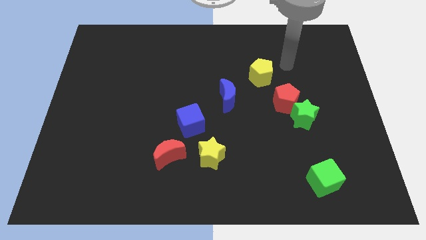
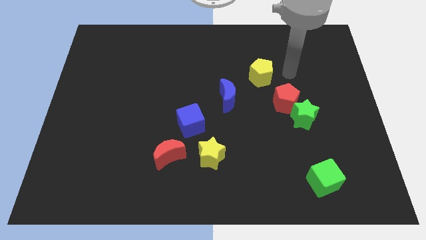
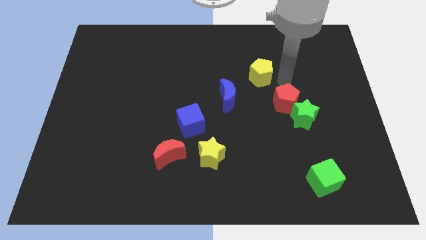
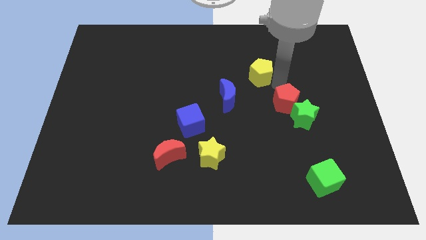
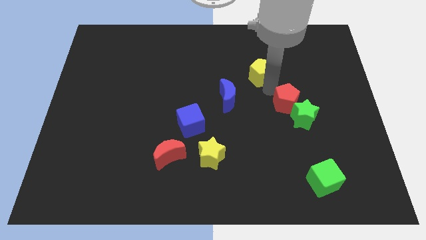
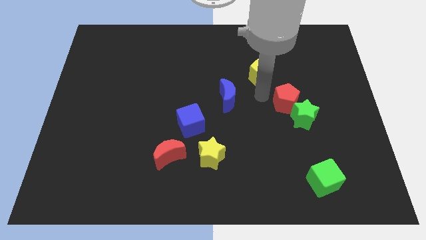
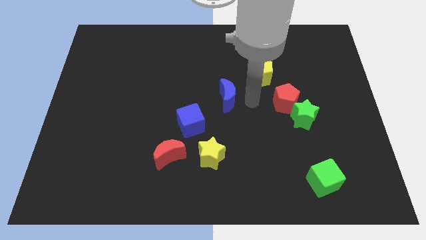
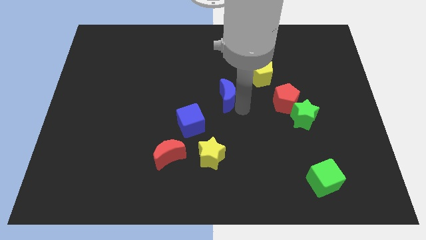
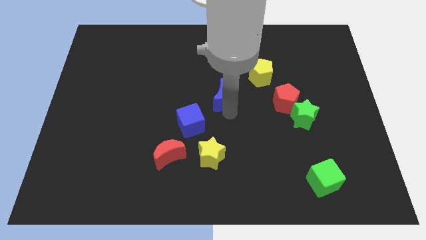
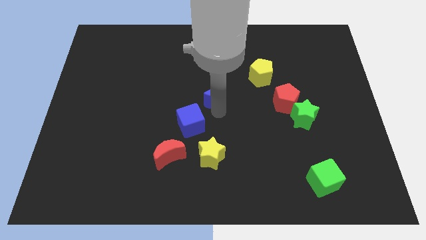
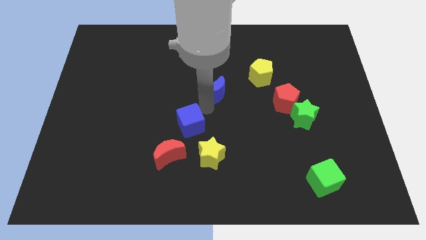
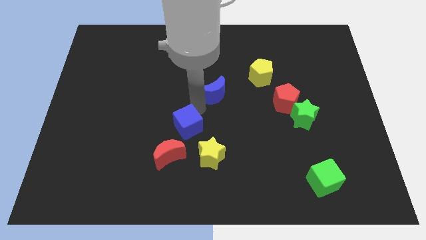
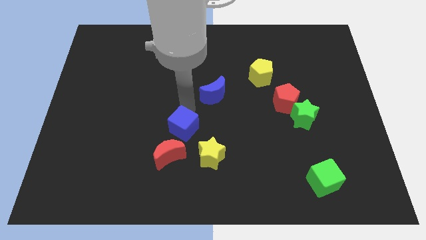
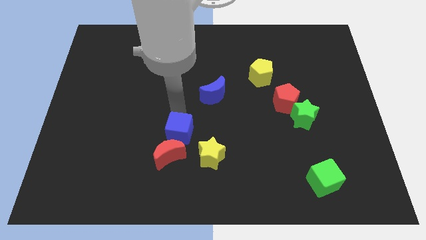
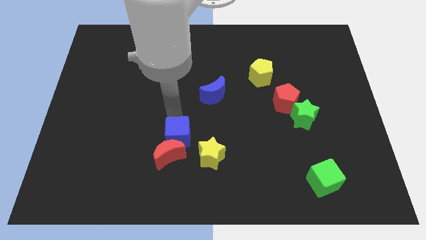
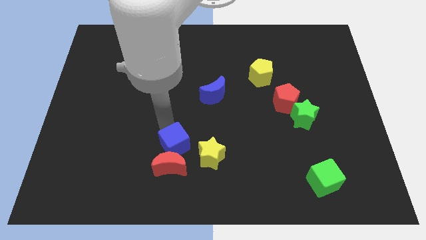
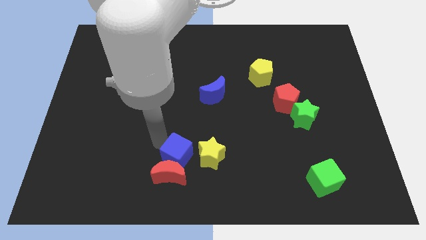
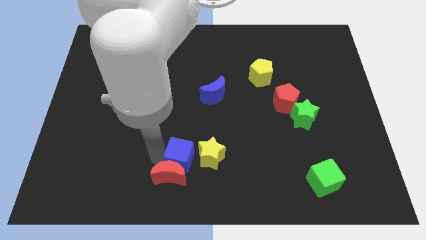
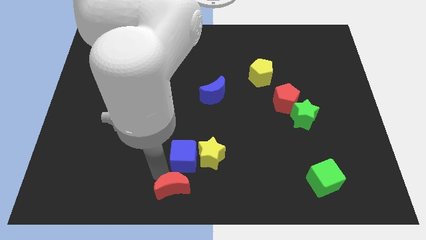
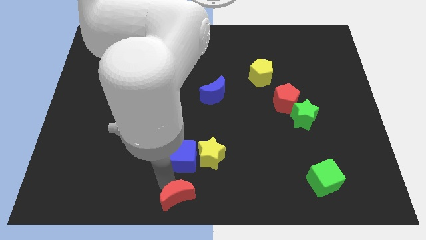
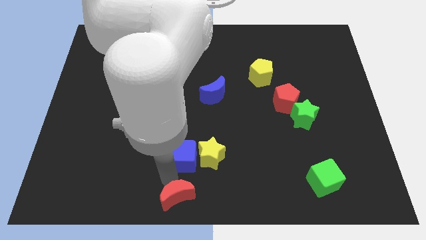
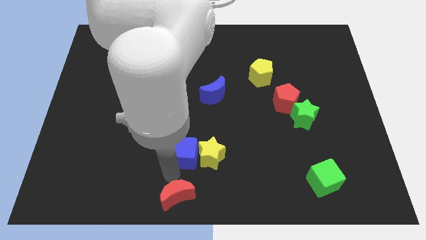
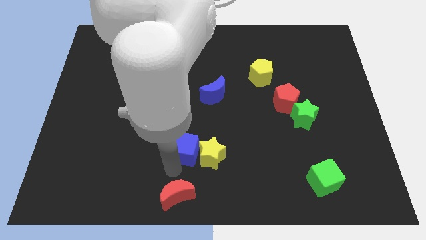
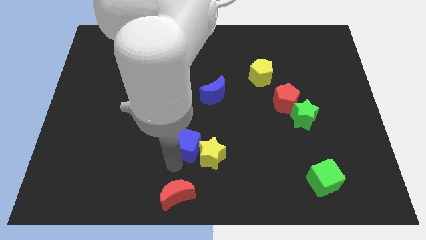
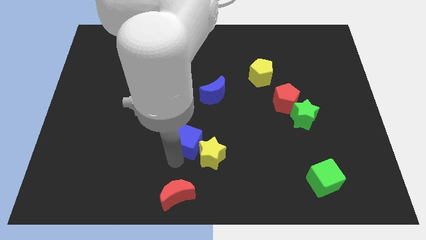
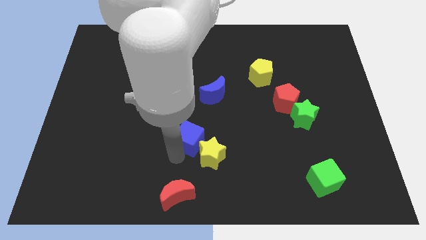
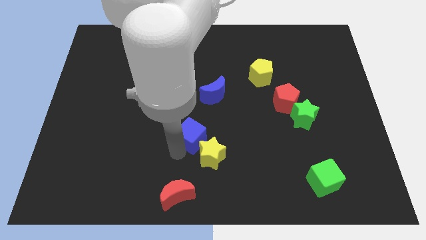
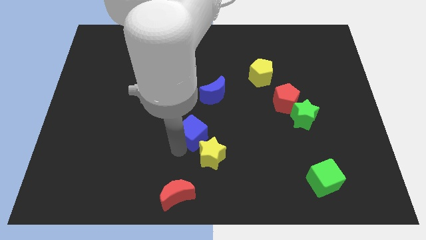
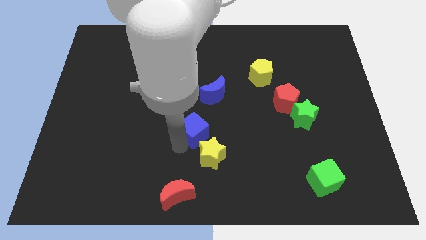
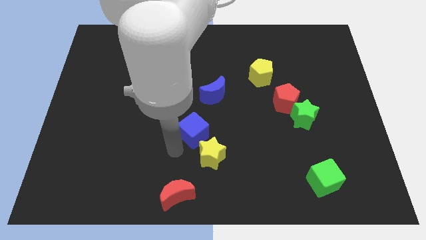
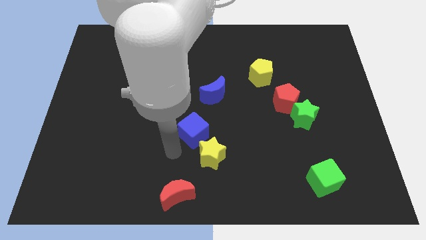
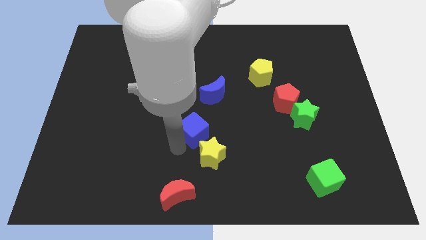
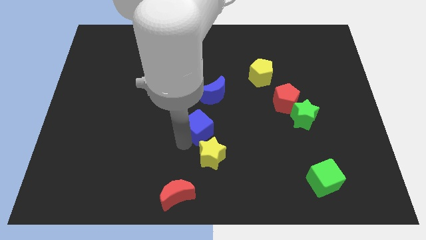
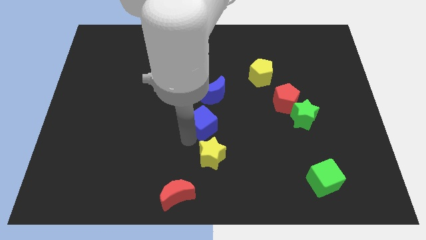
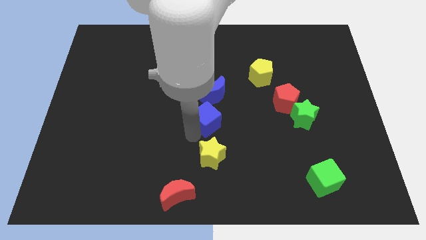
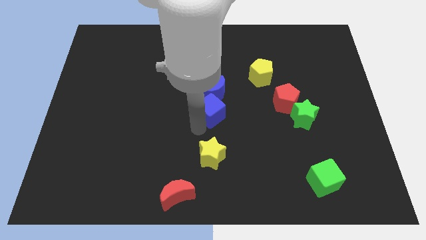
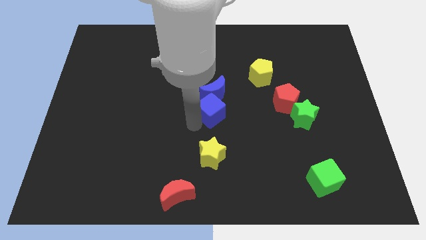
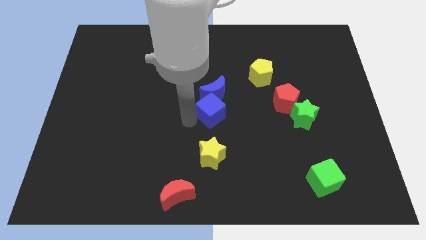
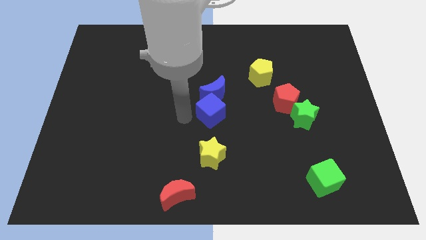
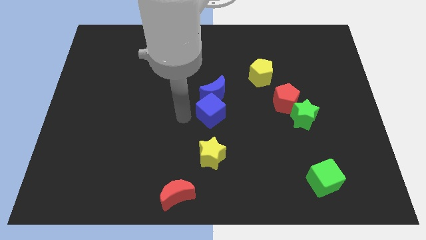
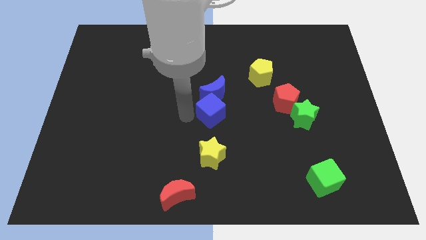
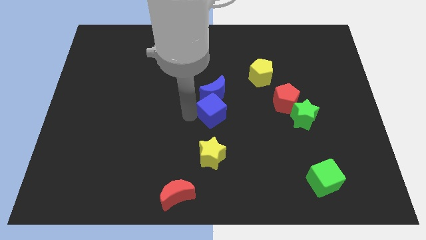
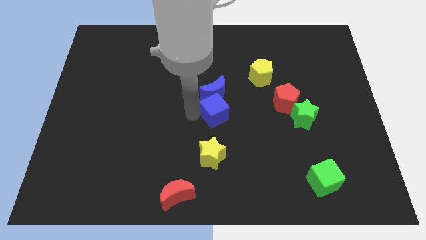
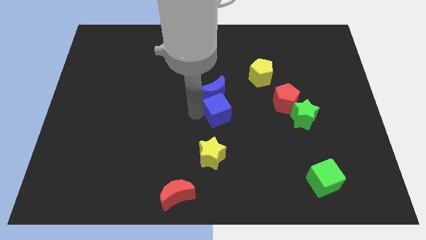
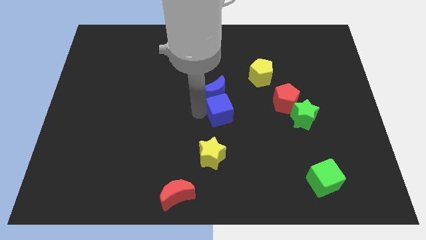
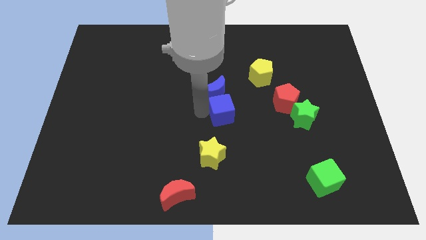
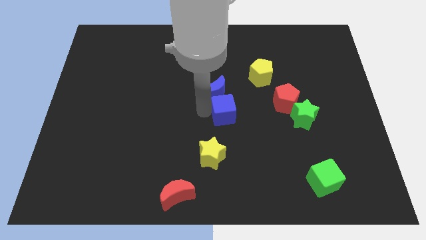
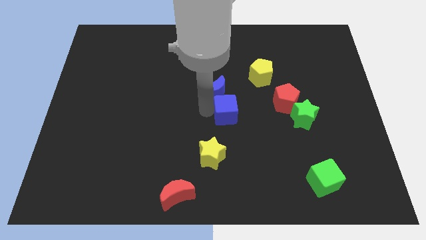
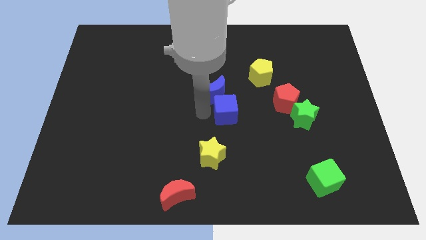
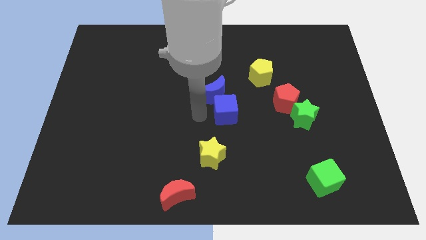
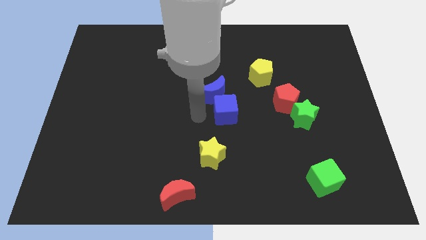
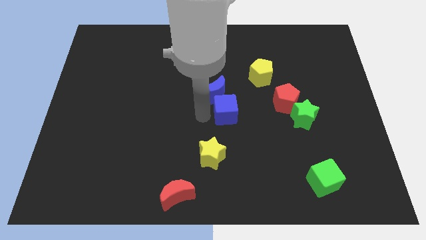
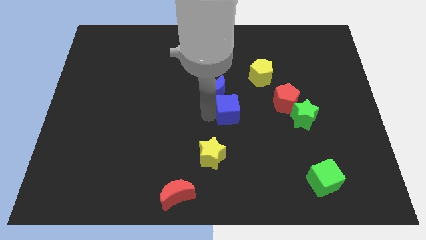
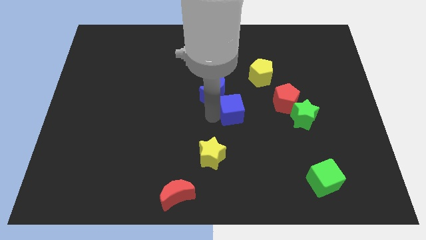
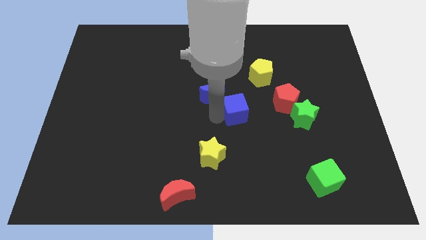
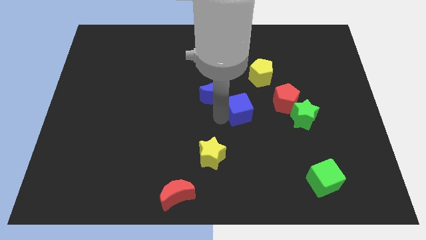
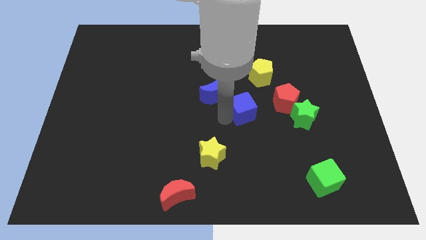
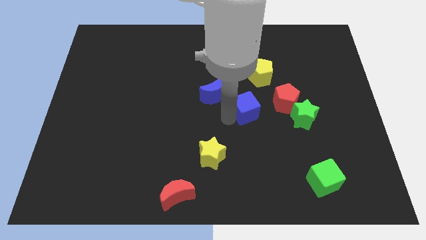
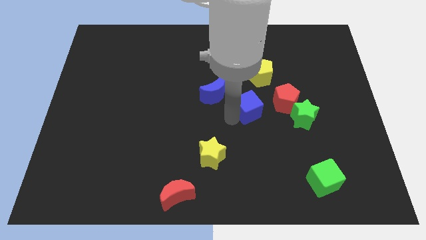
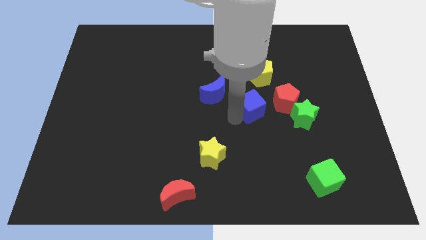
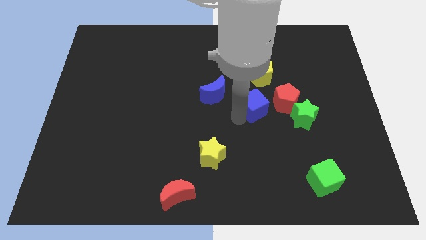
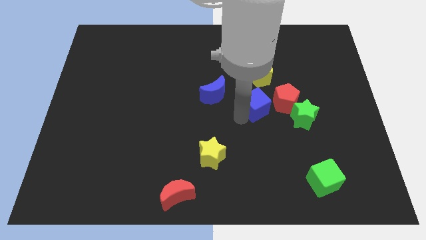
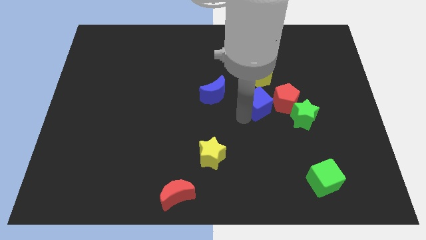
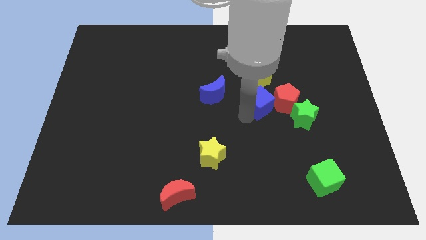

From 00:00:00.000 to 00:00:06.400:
slide the blue cube diagonally up and to the left of the green star

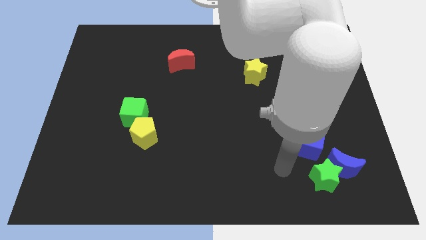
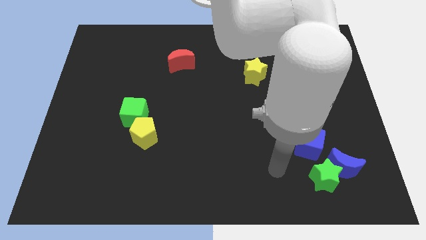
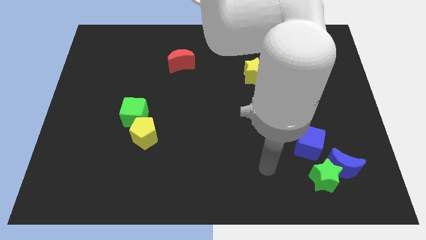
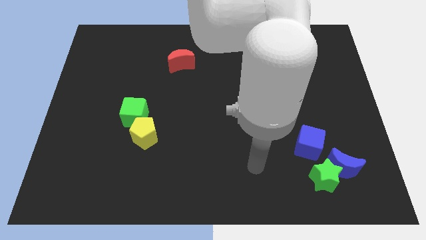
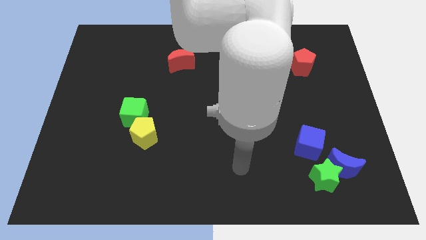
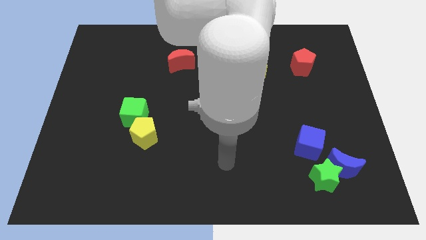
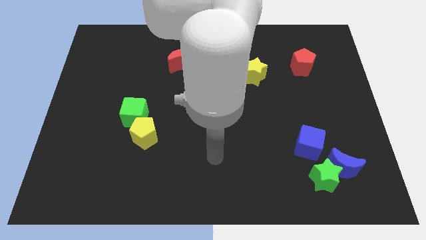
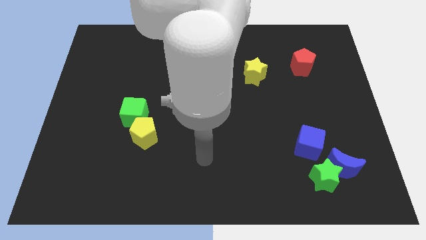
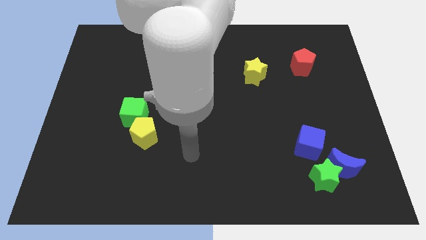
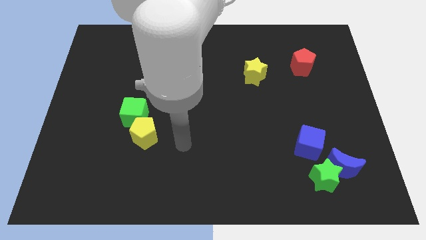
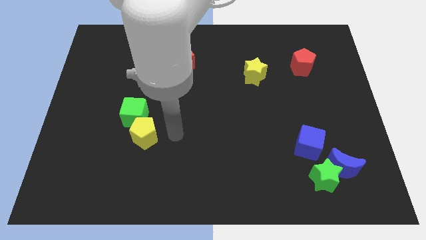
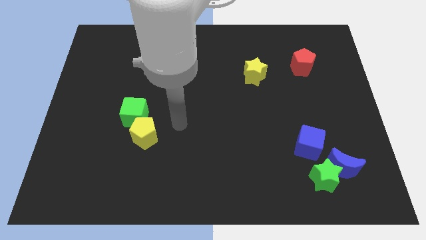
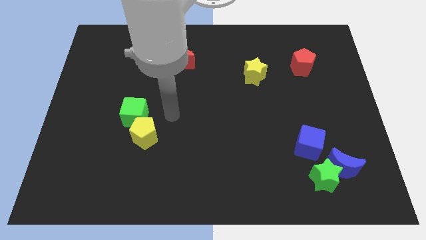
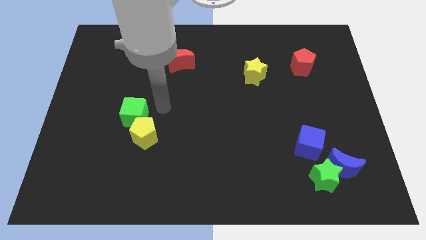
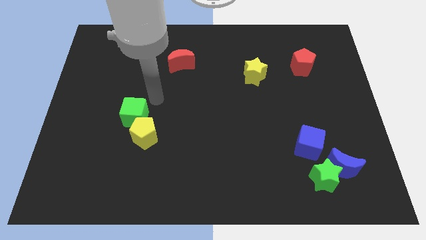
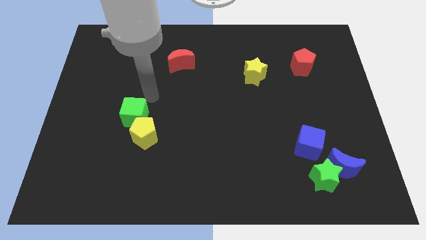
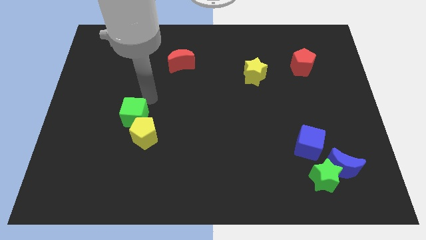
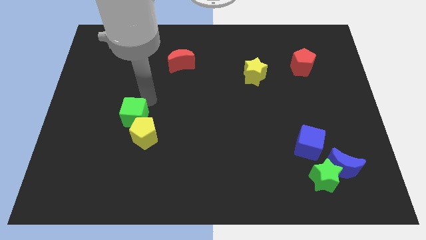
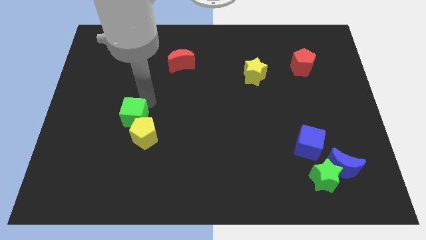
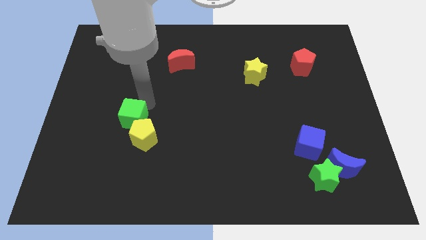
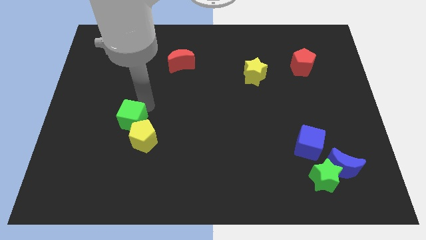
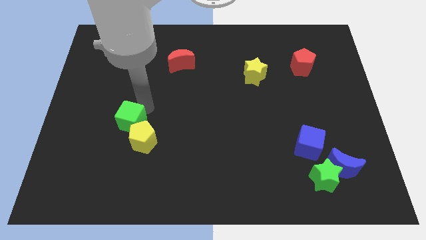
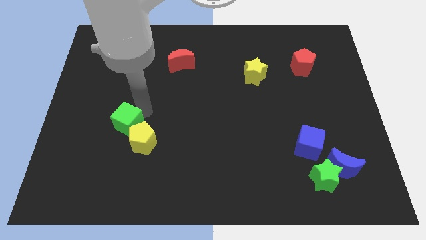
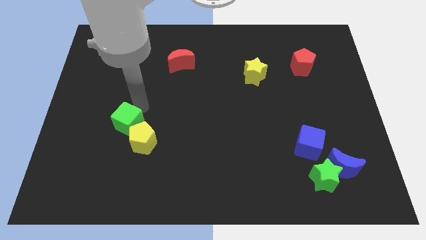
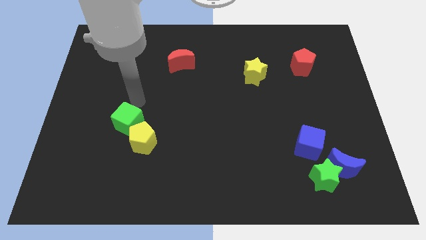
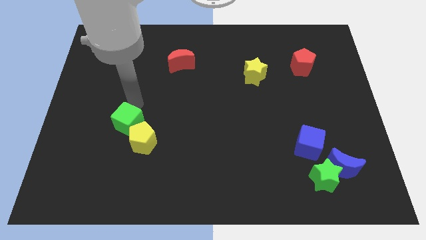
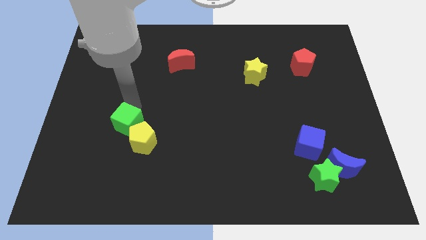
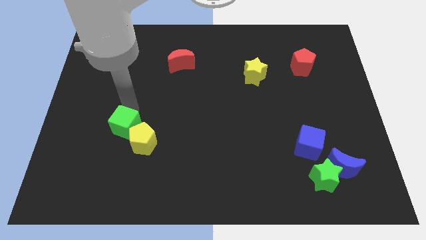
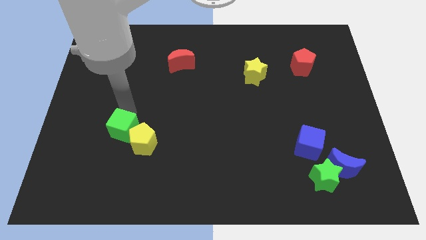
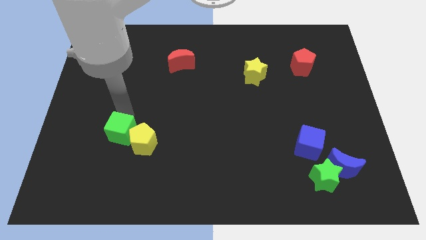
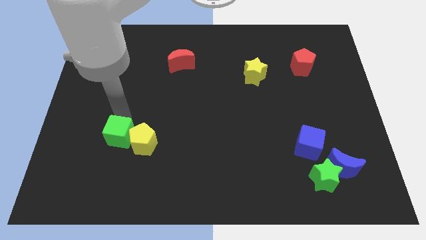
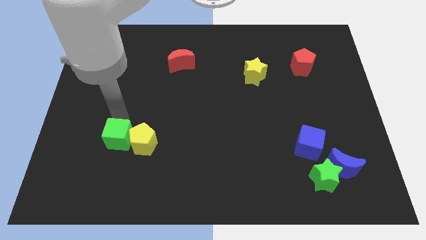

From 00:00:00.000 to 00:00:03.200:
push the green cube to the bottom left of the yellow pentagon
